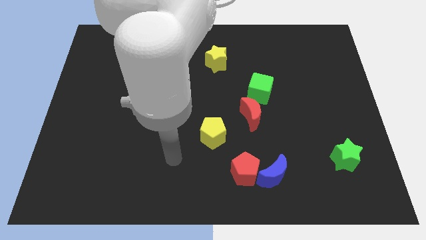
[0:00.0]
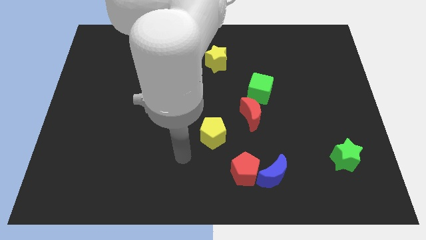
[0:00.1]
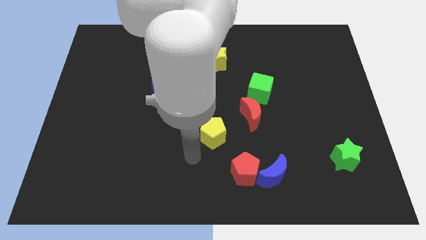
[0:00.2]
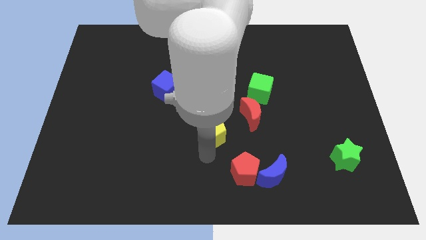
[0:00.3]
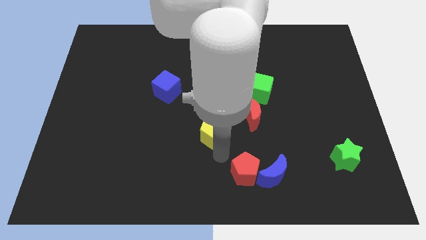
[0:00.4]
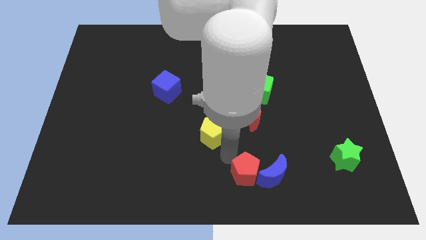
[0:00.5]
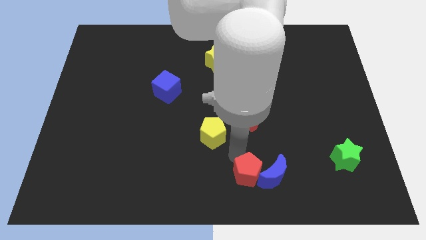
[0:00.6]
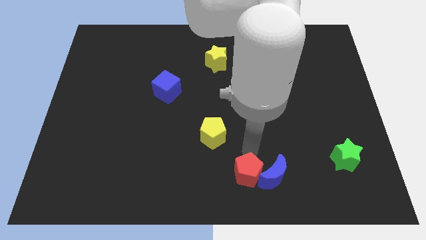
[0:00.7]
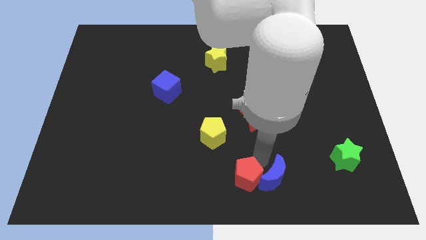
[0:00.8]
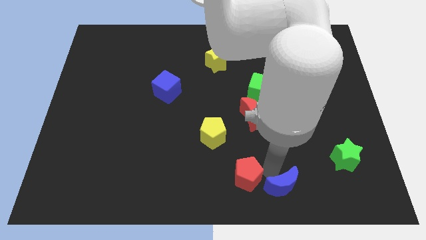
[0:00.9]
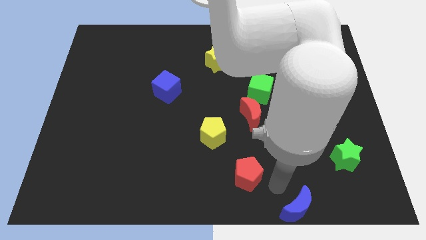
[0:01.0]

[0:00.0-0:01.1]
move the red pentagon away from the blue moon

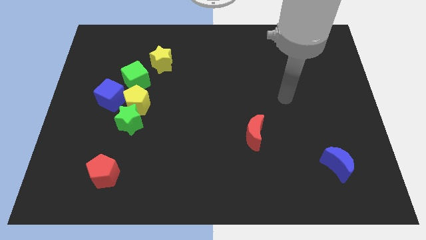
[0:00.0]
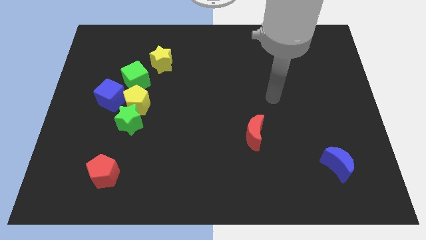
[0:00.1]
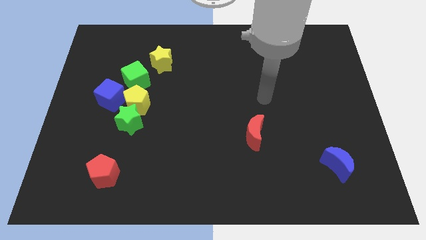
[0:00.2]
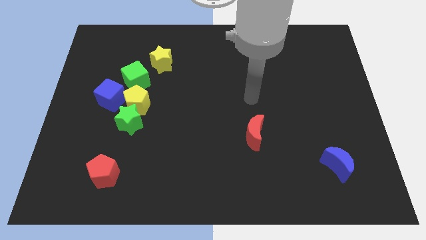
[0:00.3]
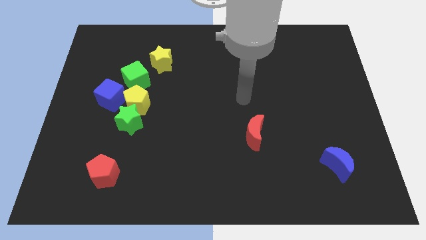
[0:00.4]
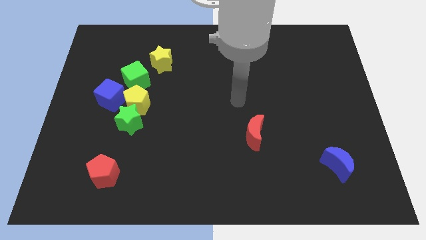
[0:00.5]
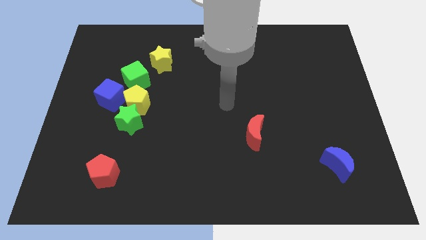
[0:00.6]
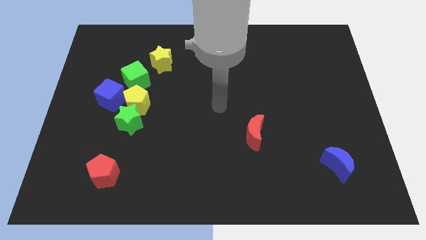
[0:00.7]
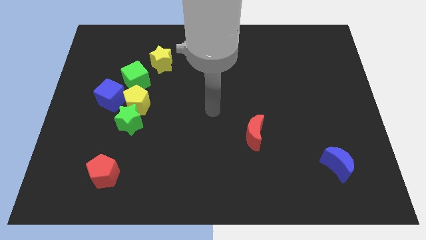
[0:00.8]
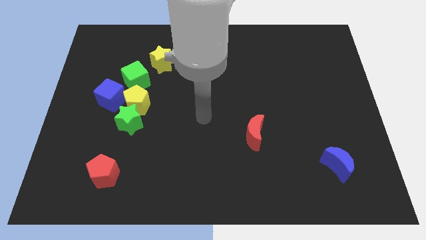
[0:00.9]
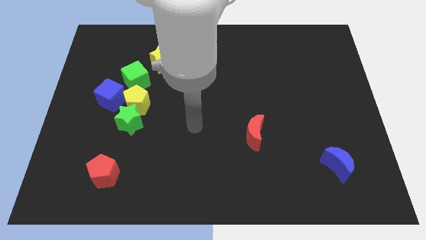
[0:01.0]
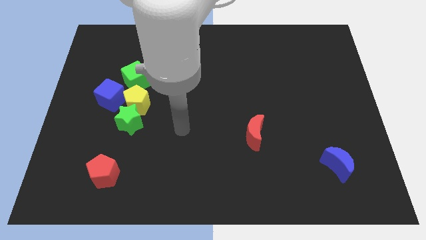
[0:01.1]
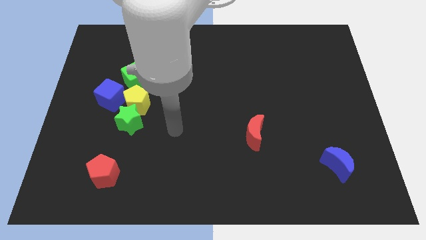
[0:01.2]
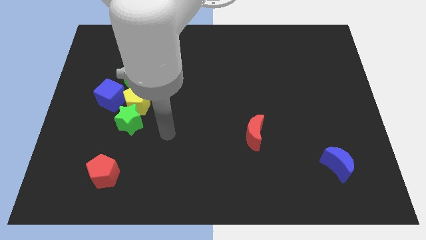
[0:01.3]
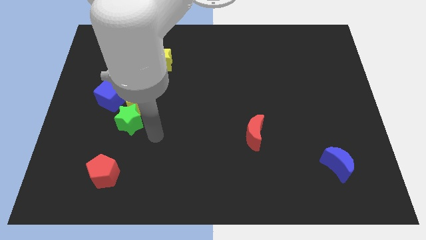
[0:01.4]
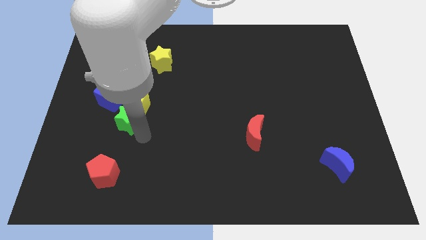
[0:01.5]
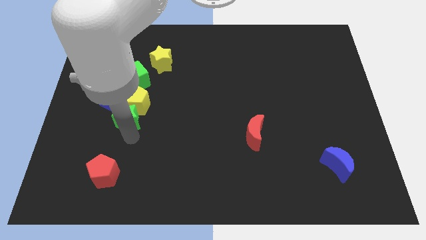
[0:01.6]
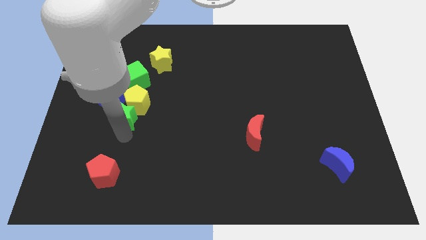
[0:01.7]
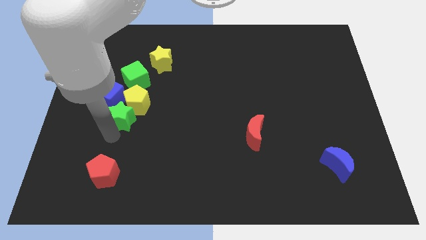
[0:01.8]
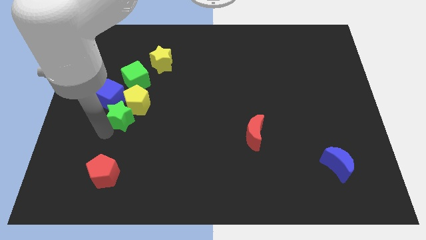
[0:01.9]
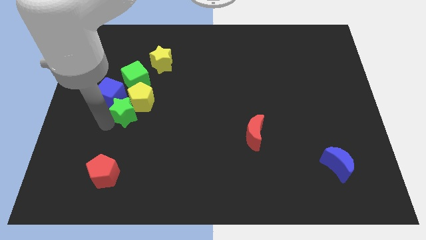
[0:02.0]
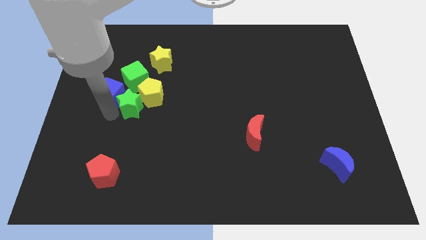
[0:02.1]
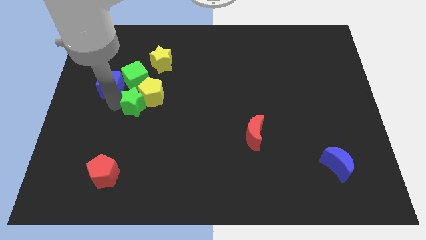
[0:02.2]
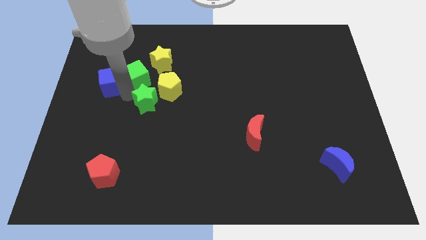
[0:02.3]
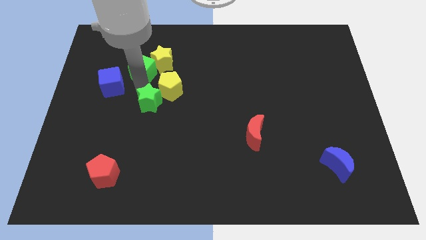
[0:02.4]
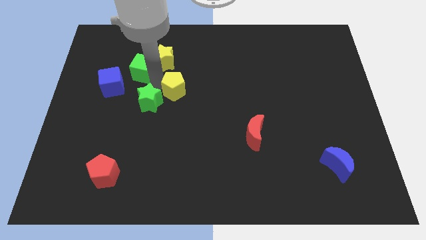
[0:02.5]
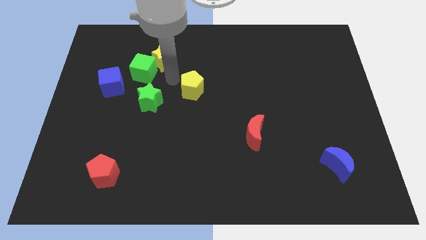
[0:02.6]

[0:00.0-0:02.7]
separate the yellow pentagon from the green star, blue cube, and green cube

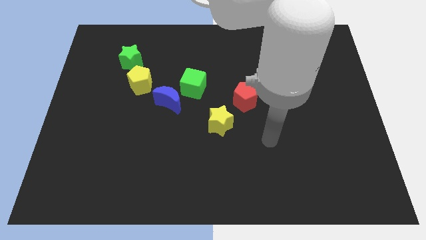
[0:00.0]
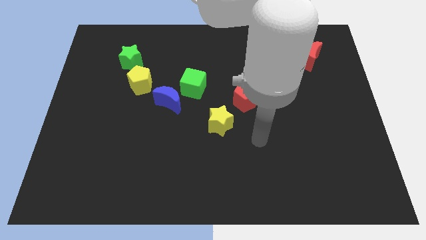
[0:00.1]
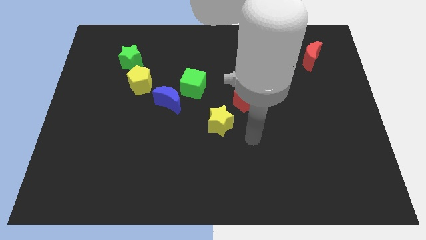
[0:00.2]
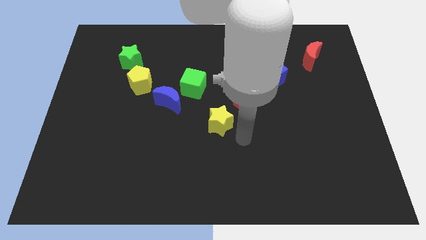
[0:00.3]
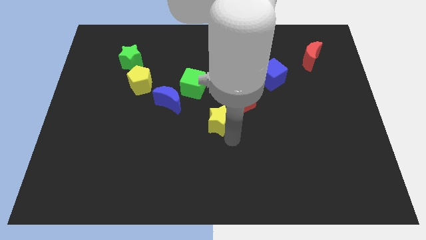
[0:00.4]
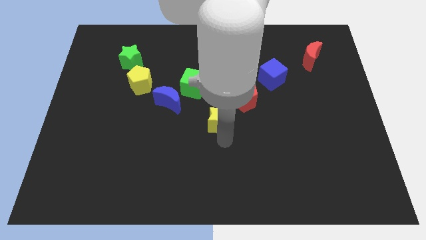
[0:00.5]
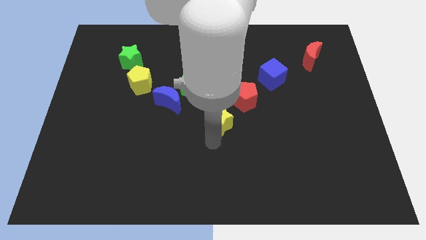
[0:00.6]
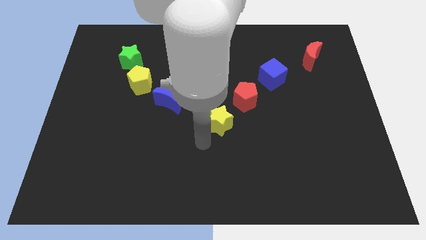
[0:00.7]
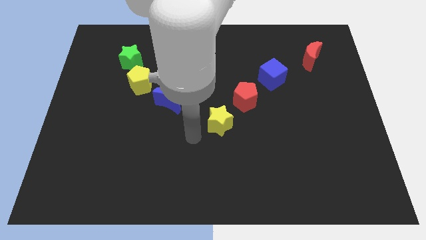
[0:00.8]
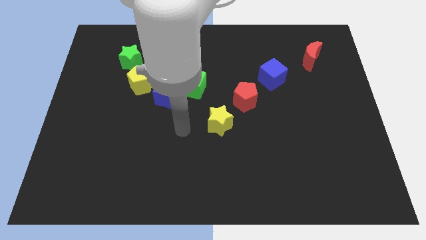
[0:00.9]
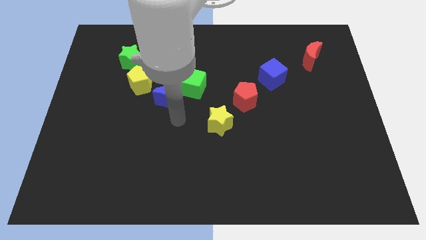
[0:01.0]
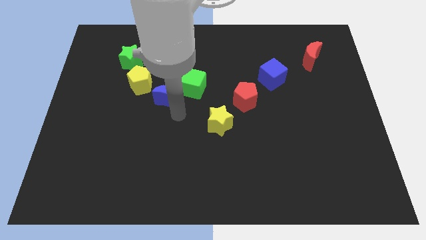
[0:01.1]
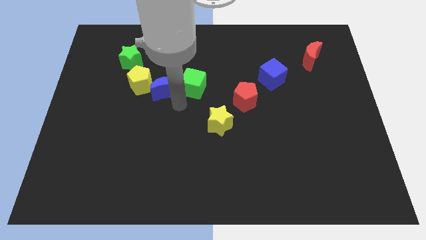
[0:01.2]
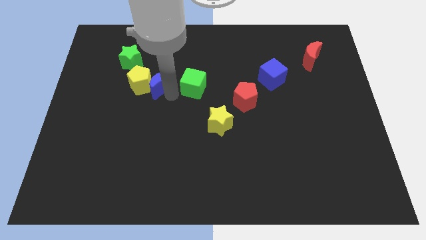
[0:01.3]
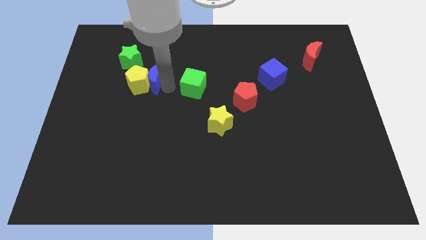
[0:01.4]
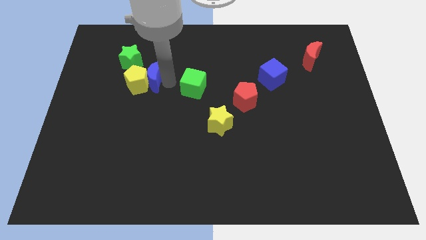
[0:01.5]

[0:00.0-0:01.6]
separate the green cube from the blue moon

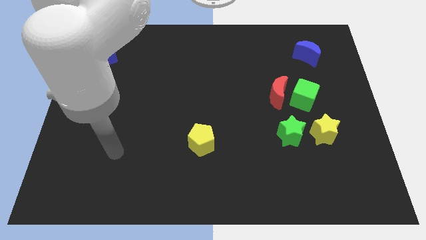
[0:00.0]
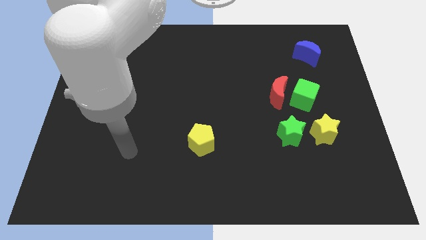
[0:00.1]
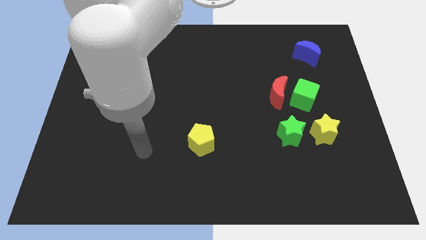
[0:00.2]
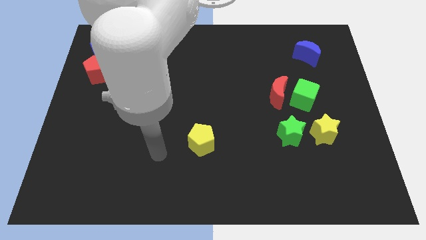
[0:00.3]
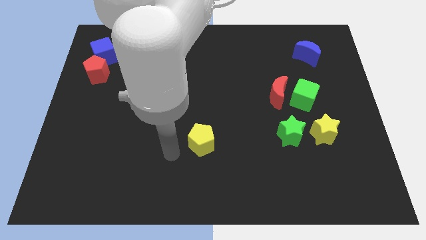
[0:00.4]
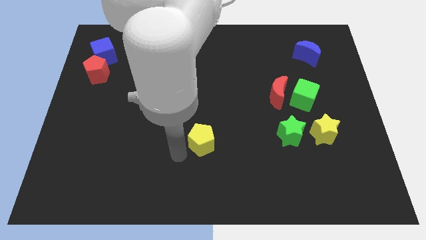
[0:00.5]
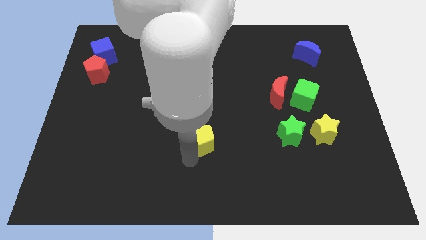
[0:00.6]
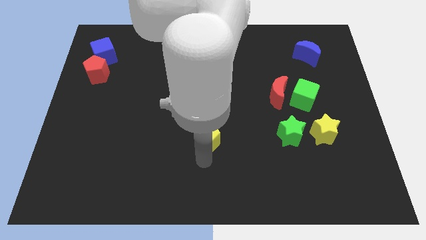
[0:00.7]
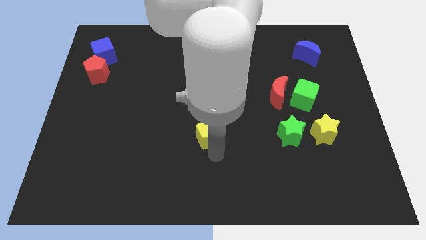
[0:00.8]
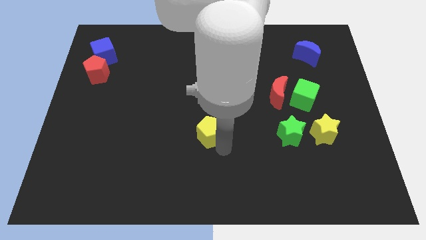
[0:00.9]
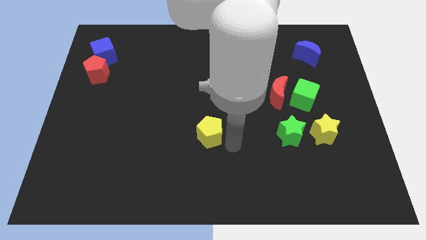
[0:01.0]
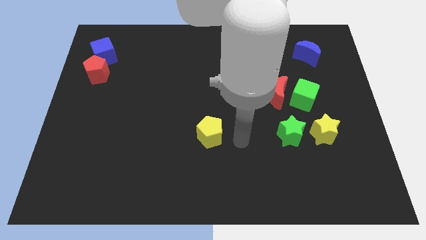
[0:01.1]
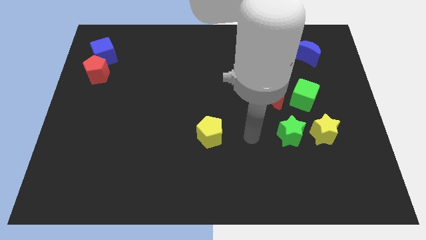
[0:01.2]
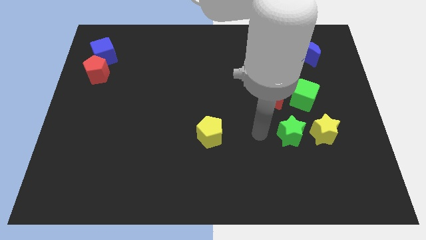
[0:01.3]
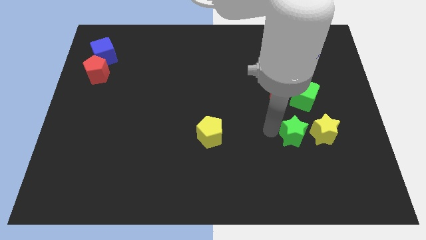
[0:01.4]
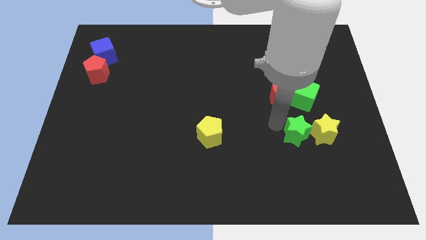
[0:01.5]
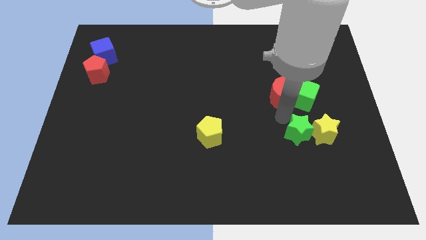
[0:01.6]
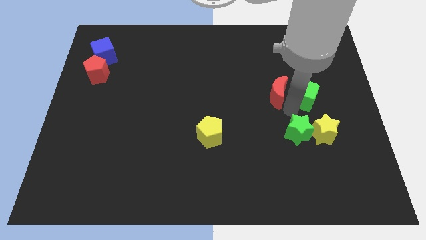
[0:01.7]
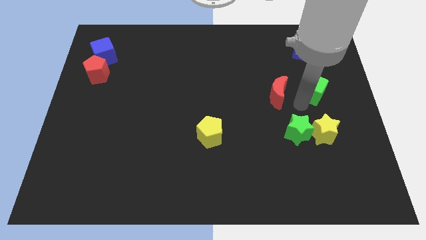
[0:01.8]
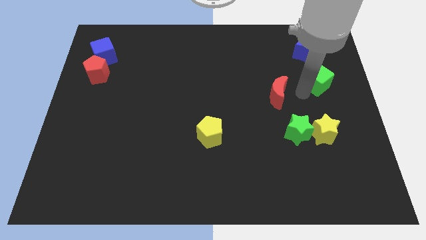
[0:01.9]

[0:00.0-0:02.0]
separate the red moon from the green cube

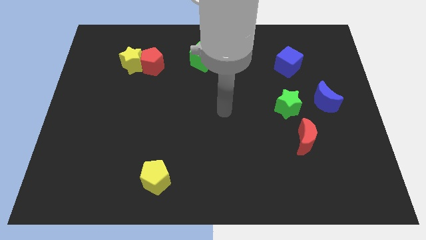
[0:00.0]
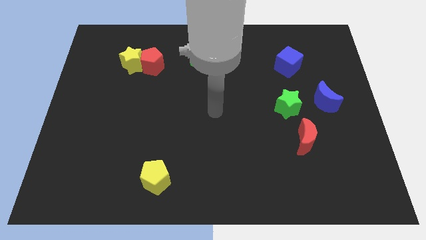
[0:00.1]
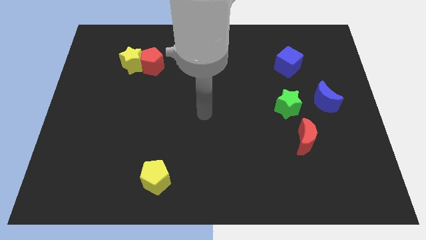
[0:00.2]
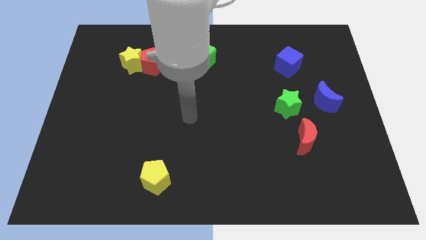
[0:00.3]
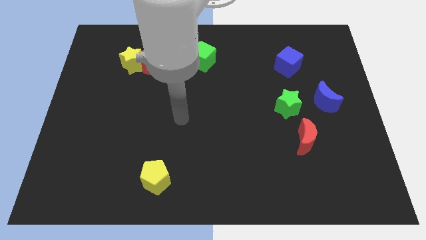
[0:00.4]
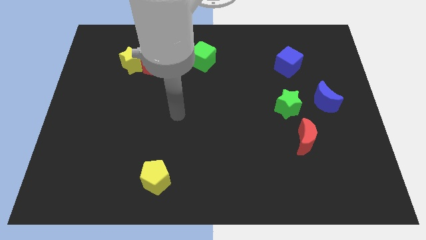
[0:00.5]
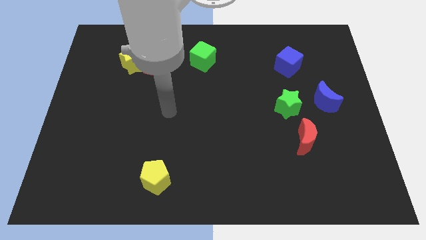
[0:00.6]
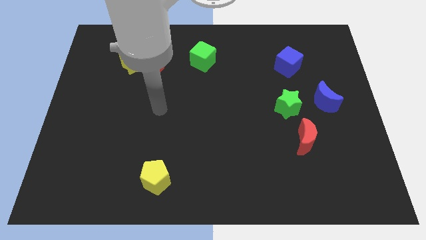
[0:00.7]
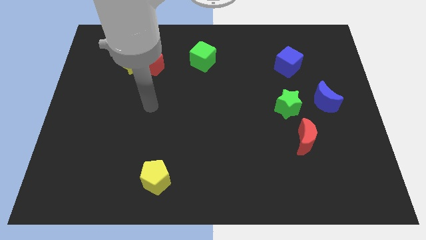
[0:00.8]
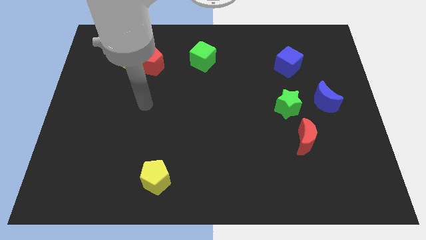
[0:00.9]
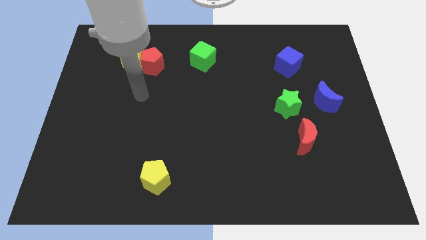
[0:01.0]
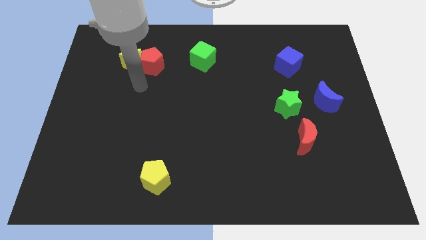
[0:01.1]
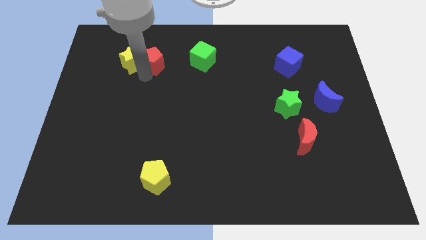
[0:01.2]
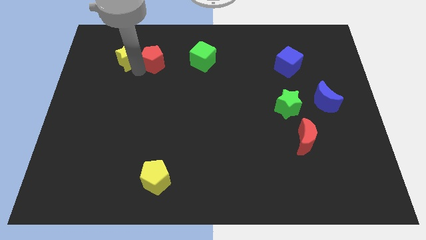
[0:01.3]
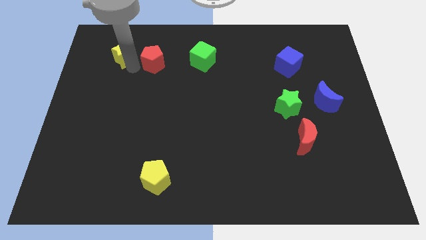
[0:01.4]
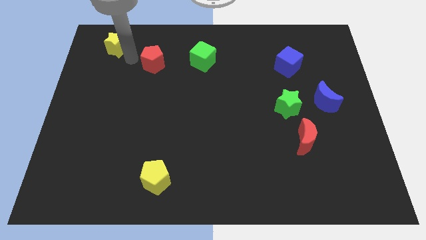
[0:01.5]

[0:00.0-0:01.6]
move the red pentagon away from the yellow star

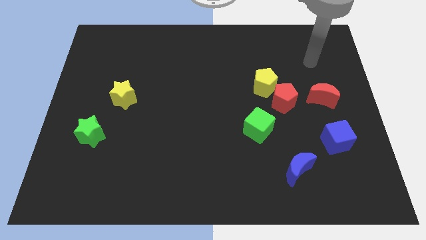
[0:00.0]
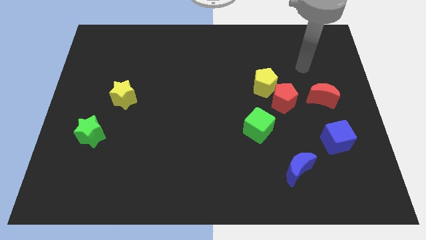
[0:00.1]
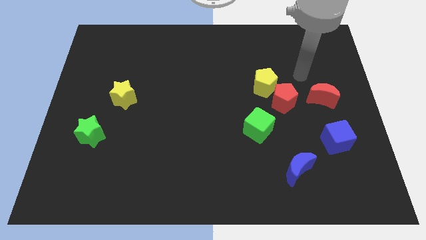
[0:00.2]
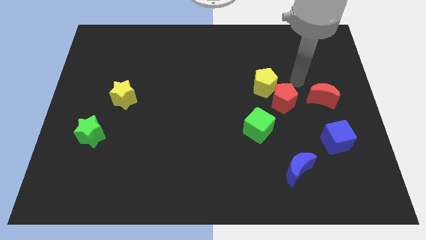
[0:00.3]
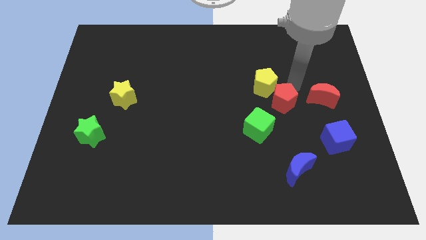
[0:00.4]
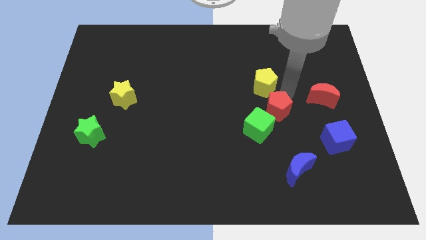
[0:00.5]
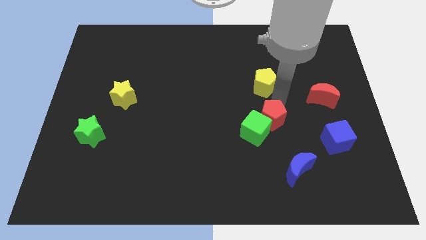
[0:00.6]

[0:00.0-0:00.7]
pull the yellow pentagon apart from the red pentagon
